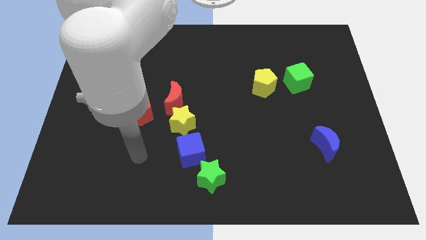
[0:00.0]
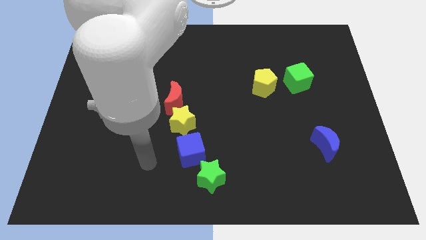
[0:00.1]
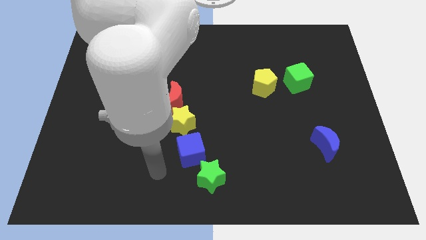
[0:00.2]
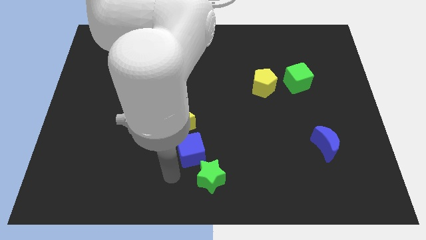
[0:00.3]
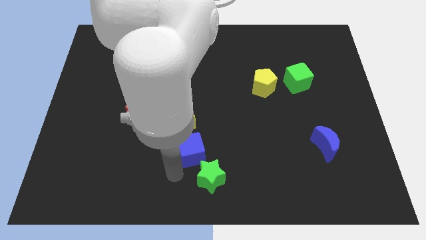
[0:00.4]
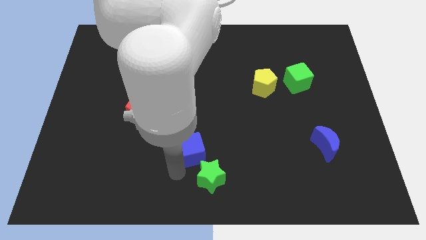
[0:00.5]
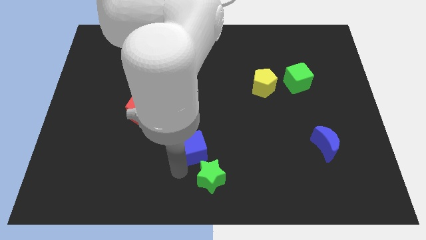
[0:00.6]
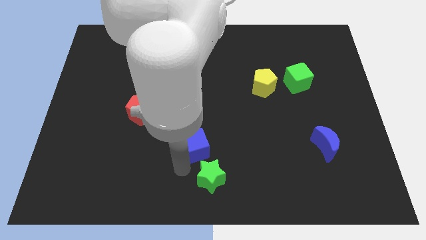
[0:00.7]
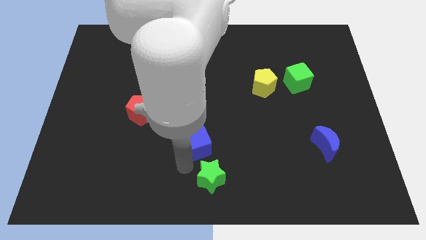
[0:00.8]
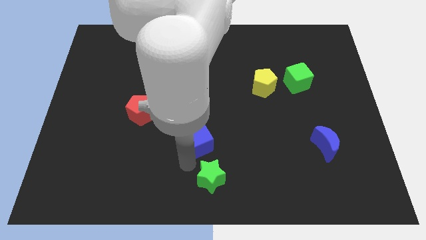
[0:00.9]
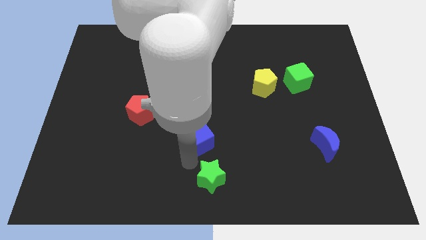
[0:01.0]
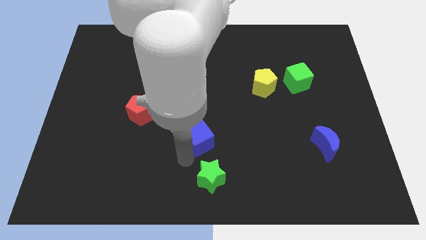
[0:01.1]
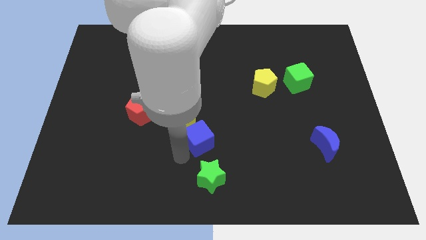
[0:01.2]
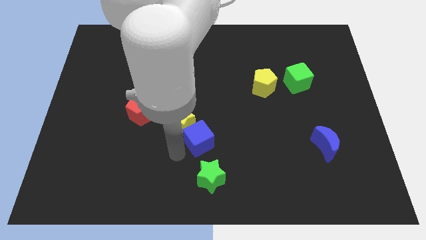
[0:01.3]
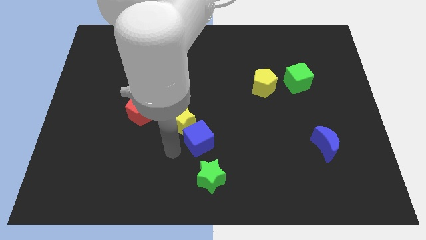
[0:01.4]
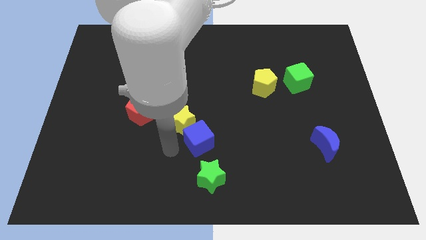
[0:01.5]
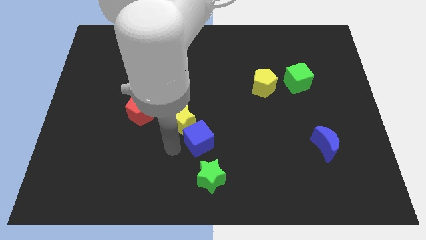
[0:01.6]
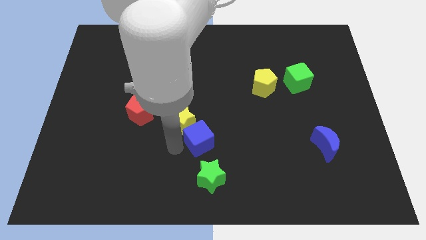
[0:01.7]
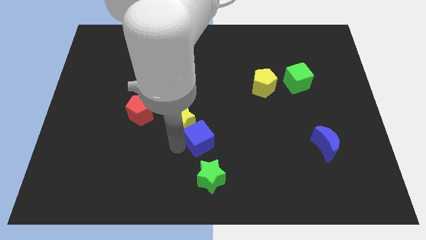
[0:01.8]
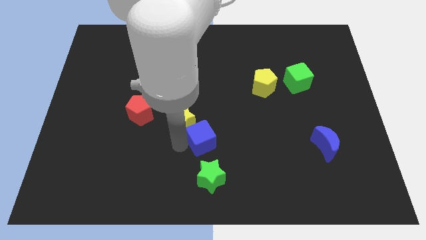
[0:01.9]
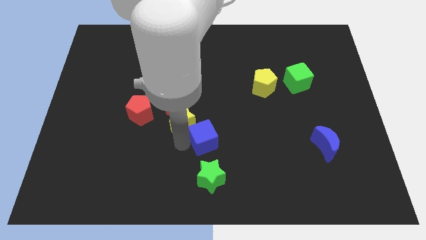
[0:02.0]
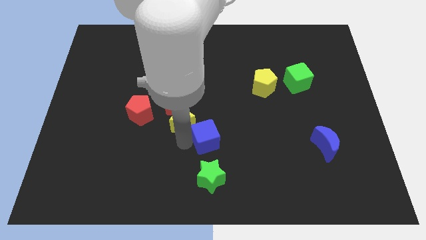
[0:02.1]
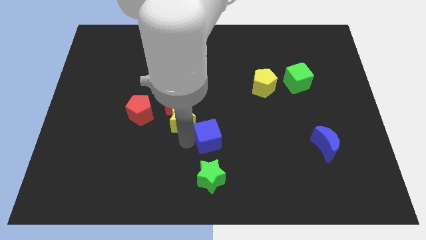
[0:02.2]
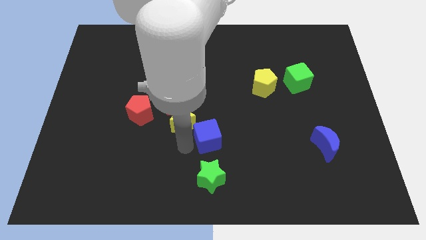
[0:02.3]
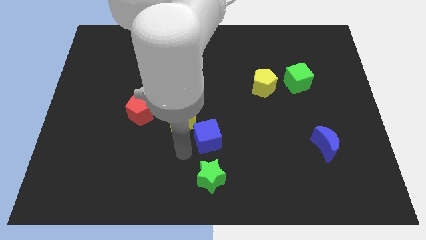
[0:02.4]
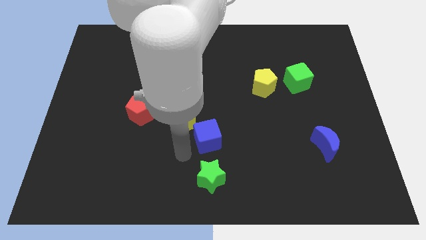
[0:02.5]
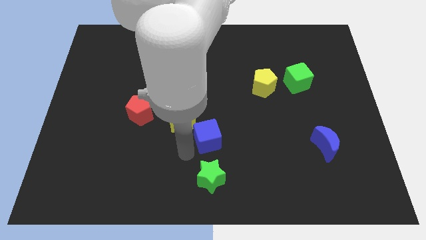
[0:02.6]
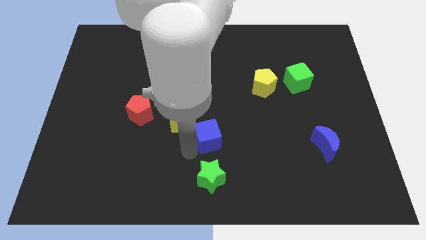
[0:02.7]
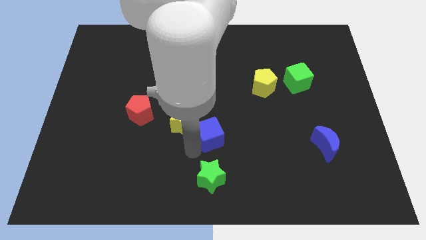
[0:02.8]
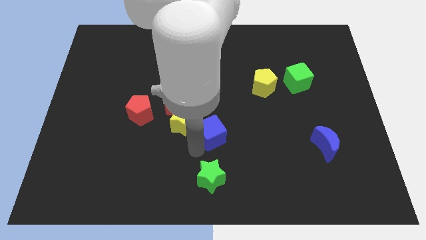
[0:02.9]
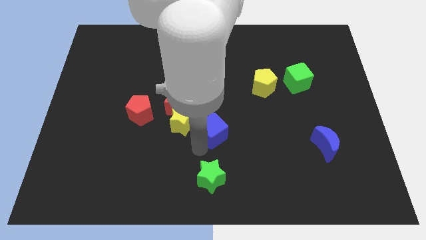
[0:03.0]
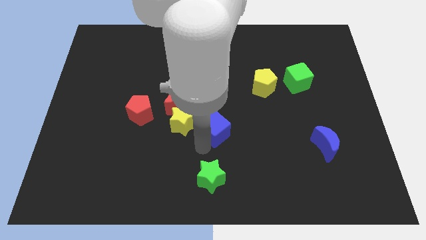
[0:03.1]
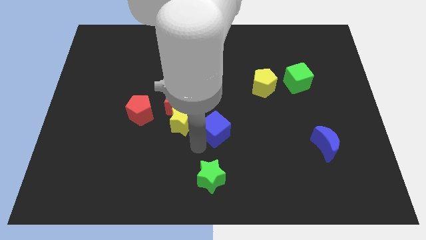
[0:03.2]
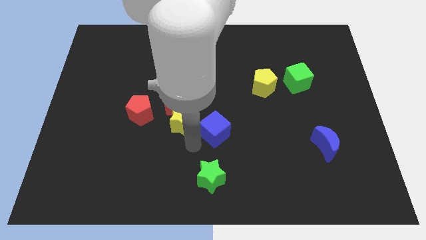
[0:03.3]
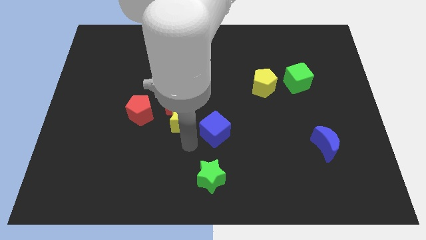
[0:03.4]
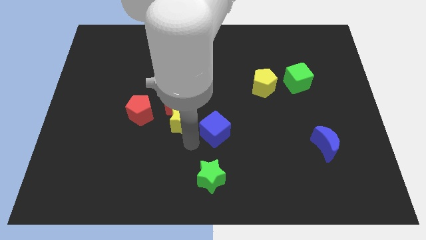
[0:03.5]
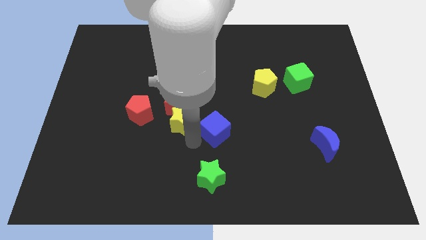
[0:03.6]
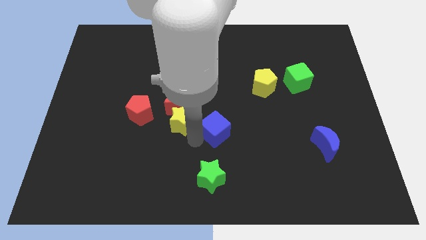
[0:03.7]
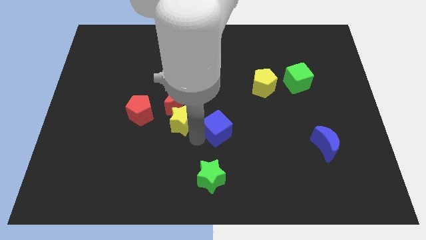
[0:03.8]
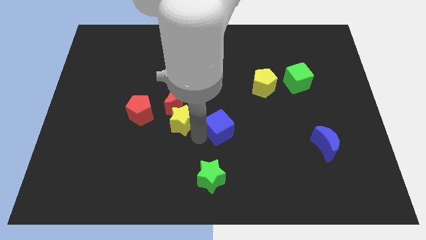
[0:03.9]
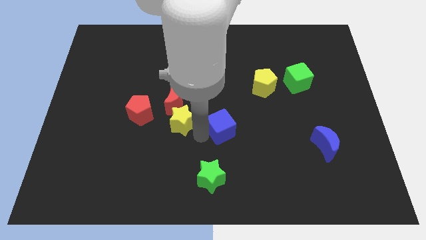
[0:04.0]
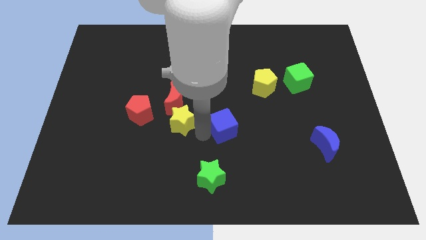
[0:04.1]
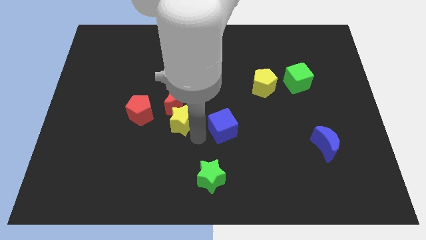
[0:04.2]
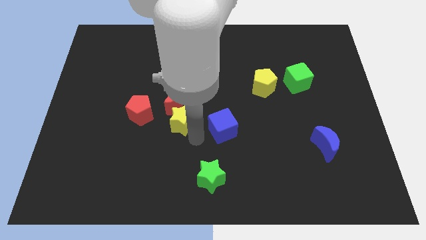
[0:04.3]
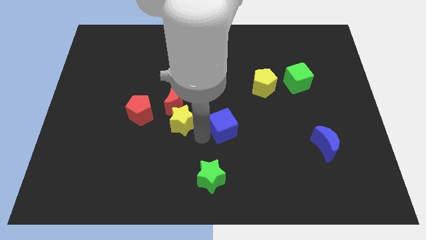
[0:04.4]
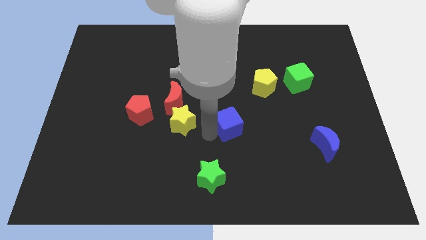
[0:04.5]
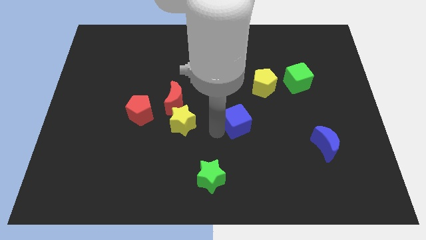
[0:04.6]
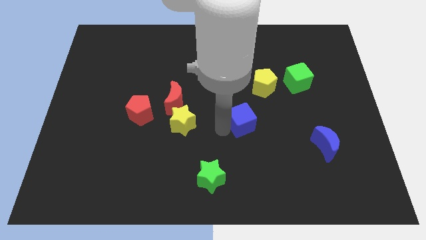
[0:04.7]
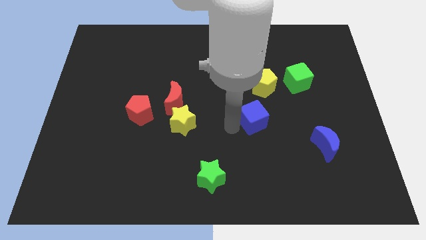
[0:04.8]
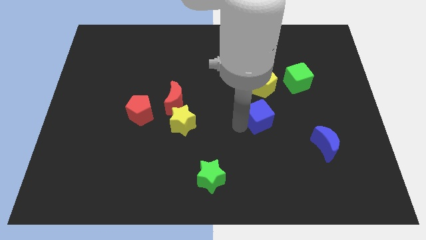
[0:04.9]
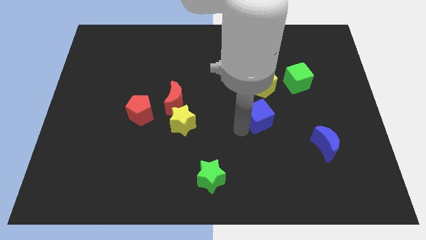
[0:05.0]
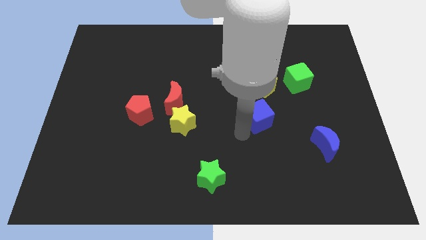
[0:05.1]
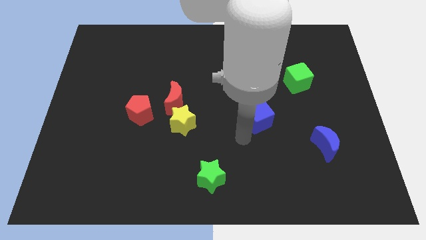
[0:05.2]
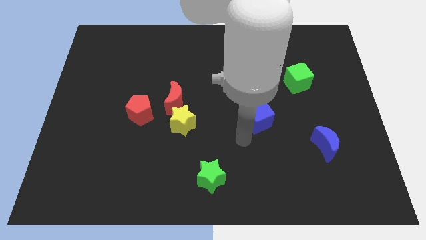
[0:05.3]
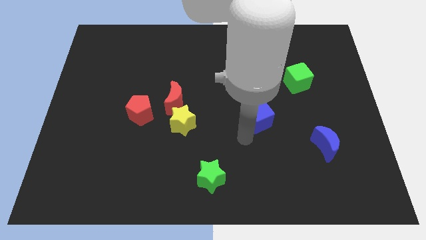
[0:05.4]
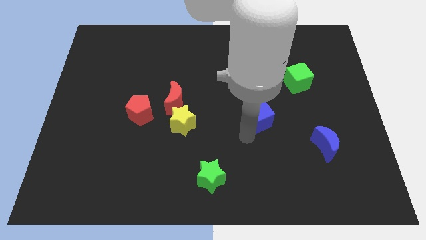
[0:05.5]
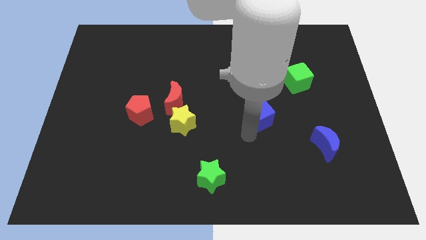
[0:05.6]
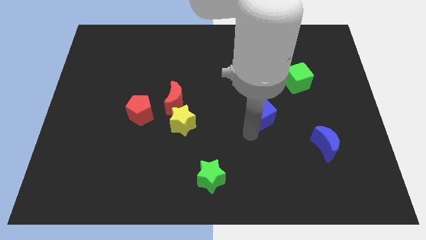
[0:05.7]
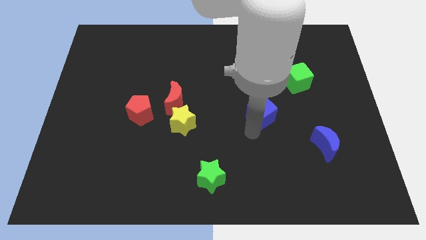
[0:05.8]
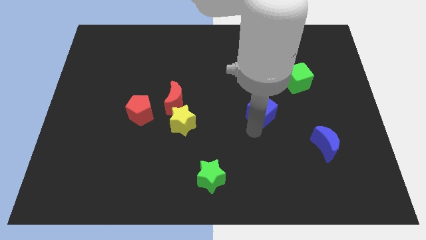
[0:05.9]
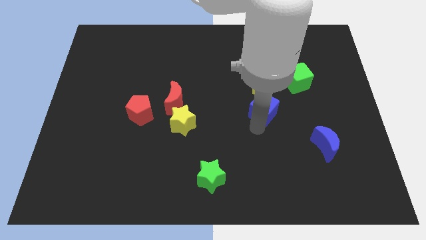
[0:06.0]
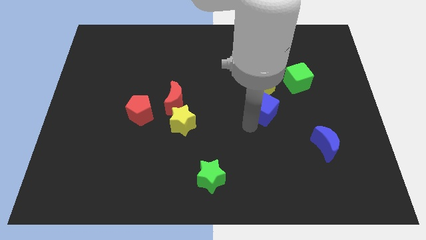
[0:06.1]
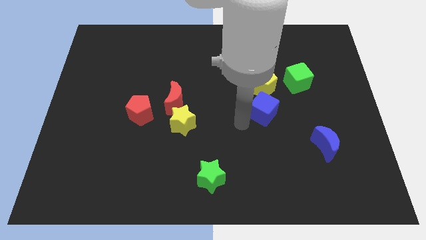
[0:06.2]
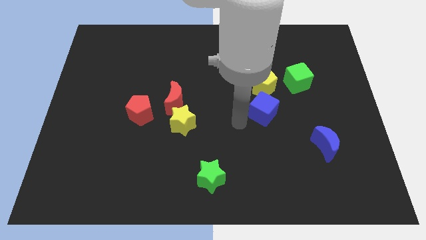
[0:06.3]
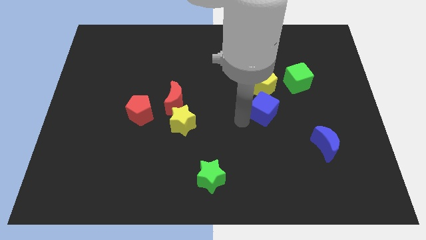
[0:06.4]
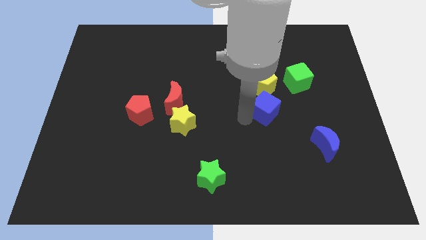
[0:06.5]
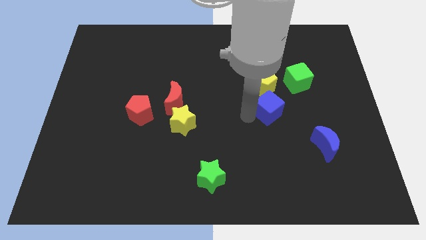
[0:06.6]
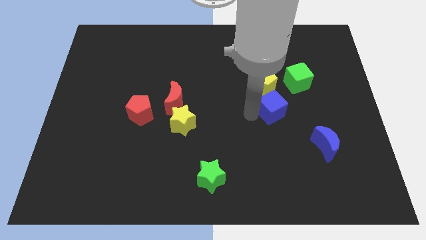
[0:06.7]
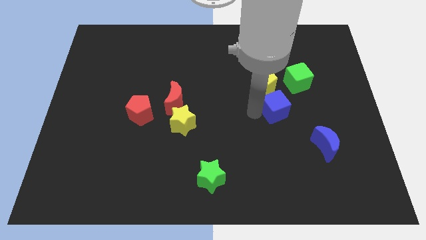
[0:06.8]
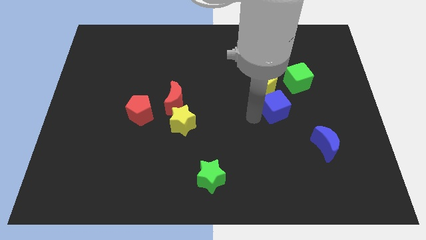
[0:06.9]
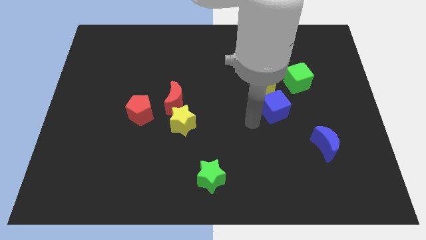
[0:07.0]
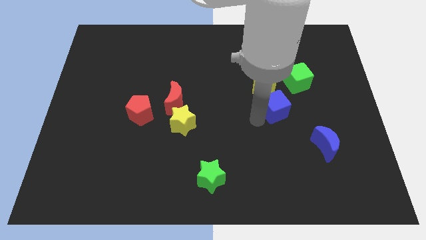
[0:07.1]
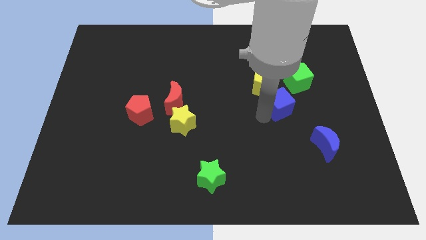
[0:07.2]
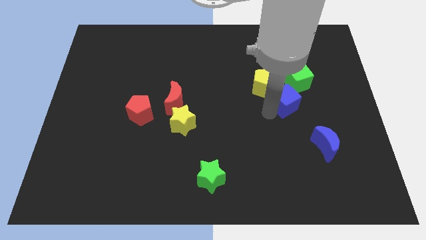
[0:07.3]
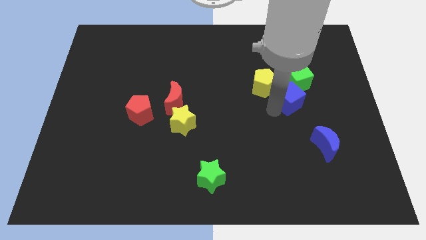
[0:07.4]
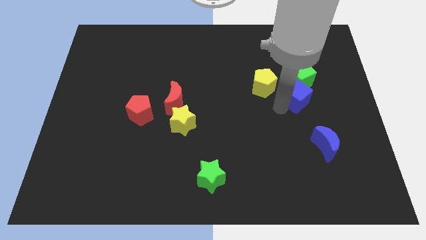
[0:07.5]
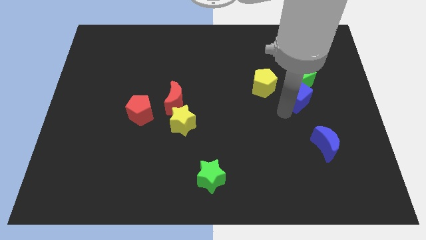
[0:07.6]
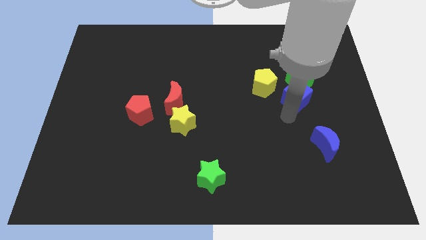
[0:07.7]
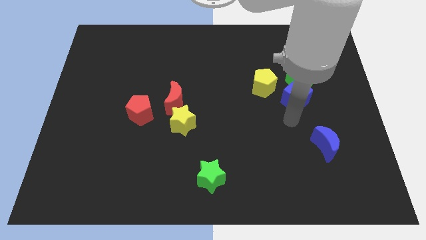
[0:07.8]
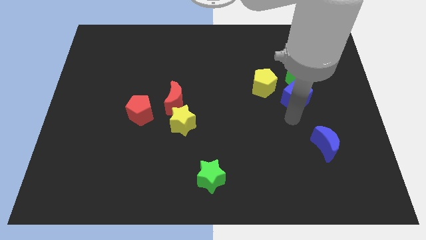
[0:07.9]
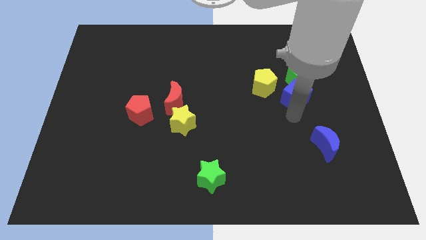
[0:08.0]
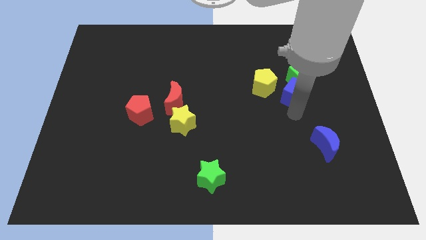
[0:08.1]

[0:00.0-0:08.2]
push the blue cube towards the green cube
